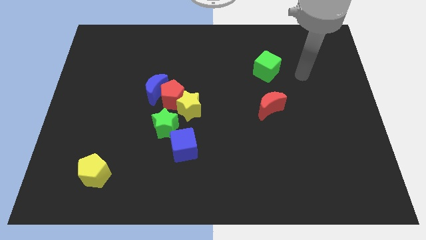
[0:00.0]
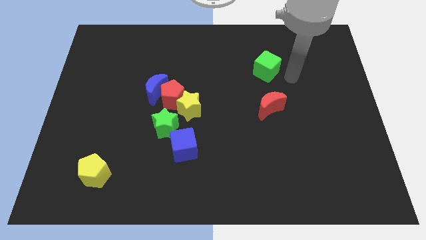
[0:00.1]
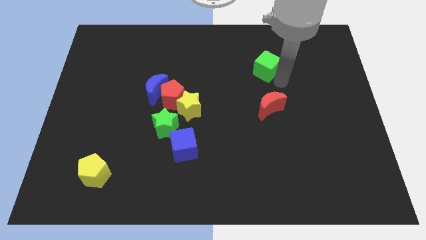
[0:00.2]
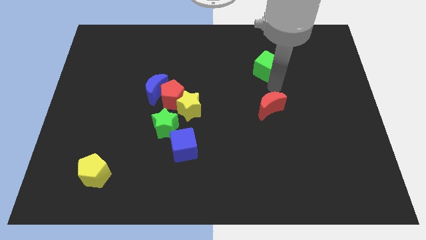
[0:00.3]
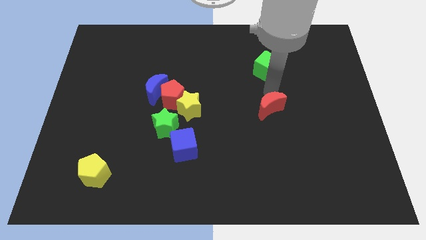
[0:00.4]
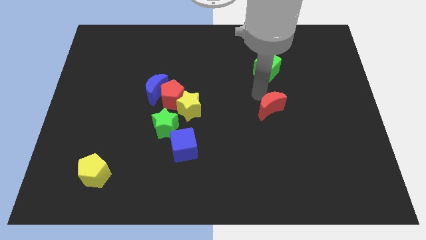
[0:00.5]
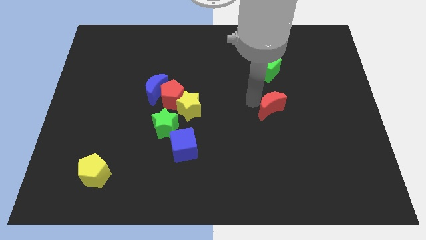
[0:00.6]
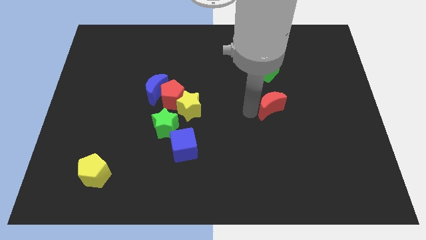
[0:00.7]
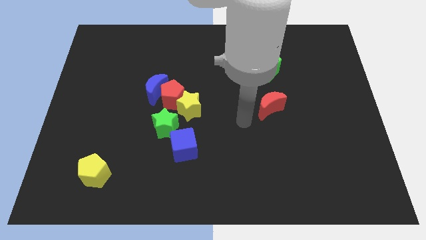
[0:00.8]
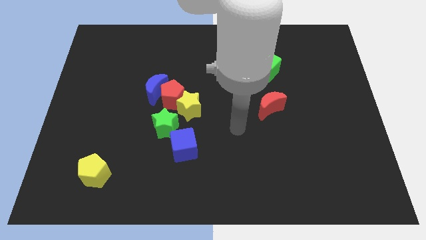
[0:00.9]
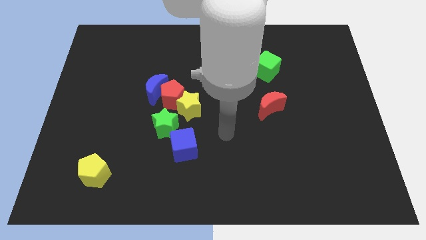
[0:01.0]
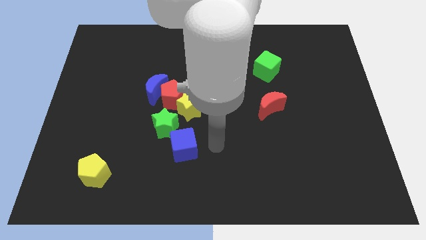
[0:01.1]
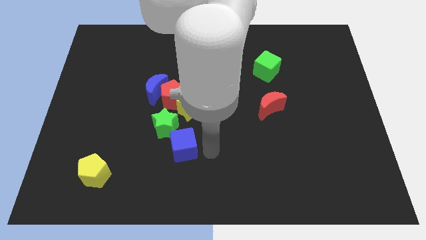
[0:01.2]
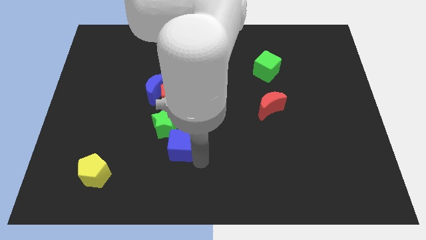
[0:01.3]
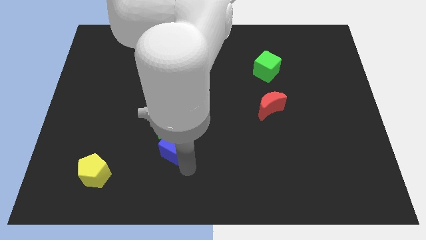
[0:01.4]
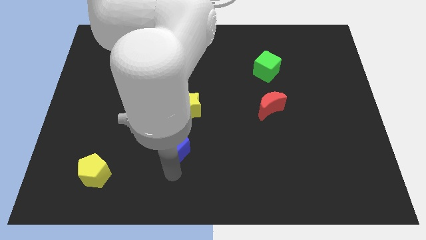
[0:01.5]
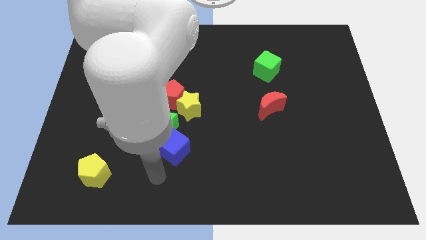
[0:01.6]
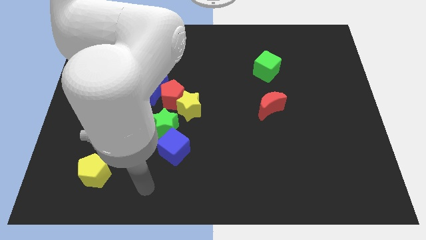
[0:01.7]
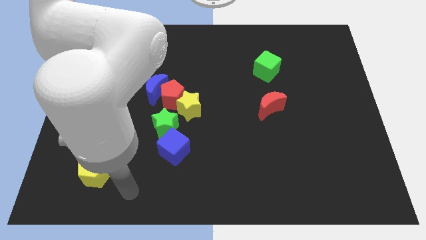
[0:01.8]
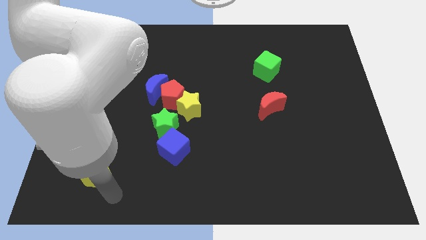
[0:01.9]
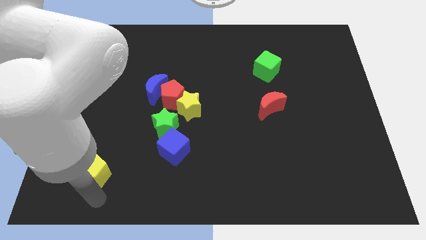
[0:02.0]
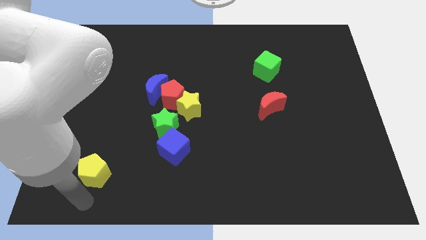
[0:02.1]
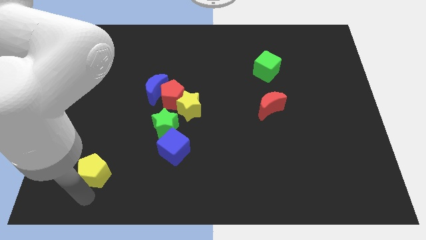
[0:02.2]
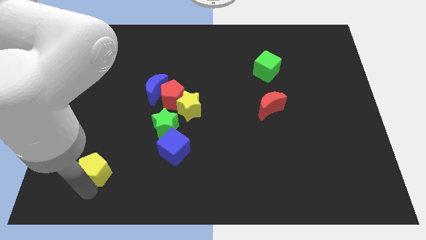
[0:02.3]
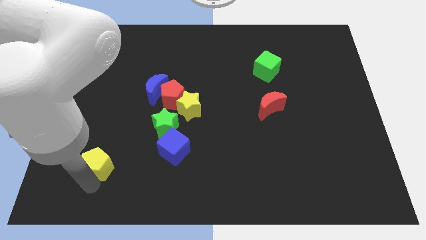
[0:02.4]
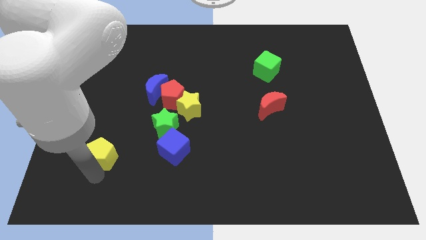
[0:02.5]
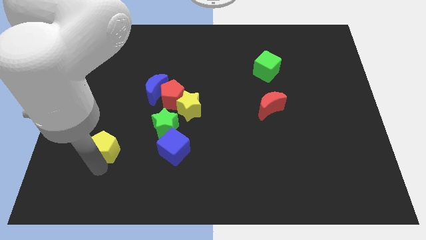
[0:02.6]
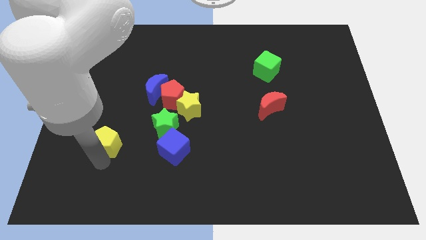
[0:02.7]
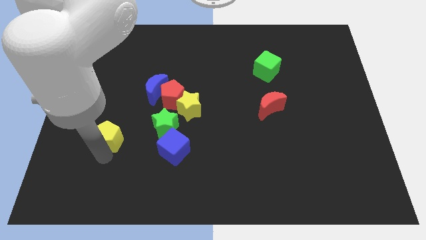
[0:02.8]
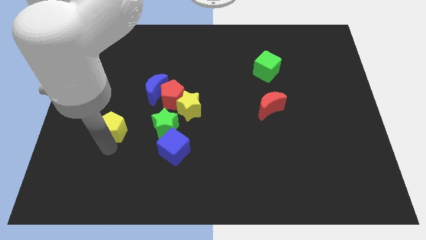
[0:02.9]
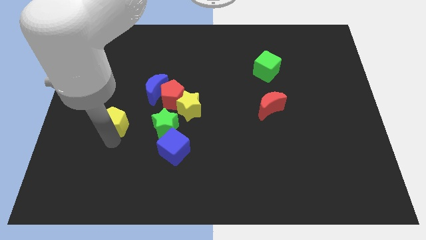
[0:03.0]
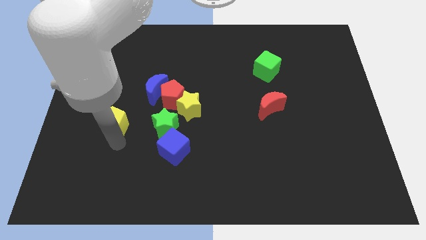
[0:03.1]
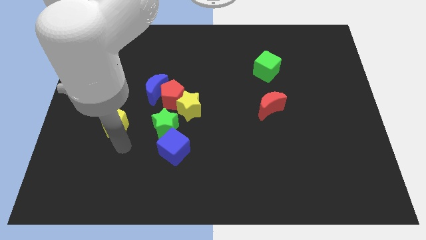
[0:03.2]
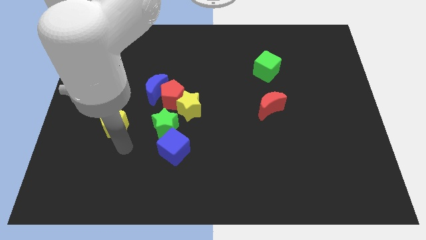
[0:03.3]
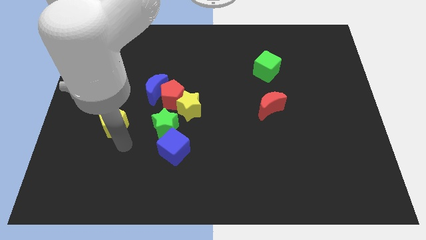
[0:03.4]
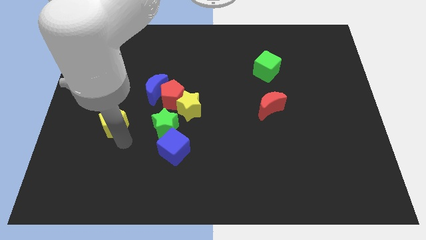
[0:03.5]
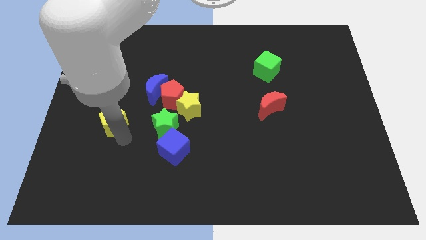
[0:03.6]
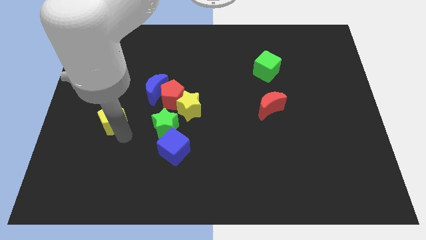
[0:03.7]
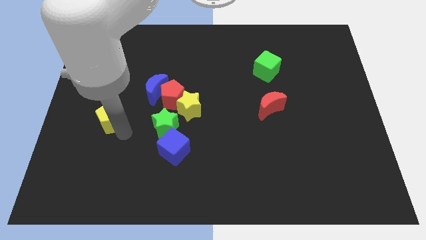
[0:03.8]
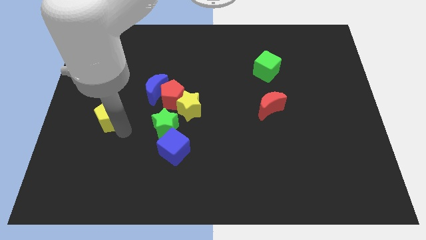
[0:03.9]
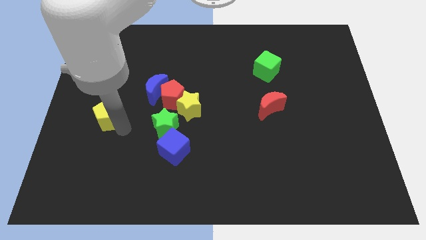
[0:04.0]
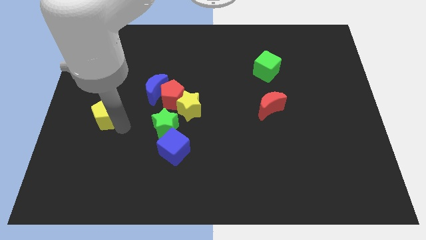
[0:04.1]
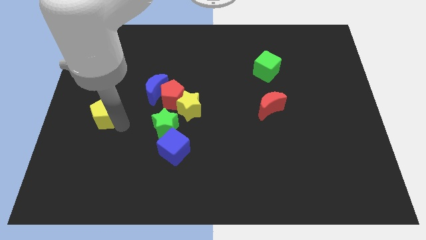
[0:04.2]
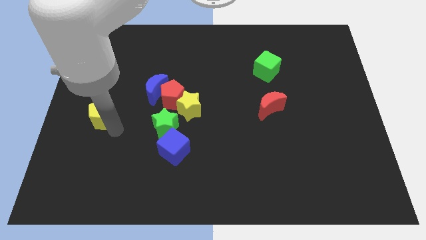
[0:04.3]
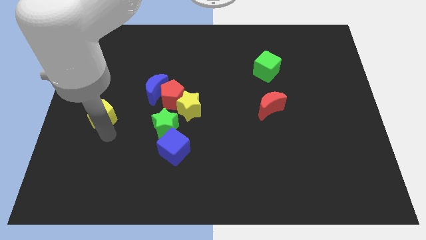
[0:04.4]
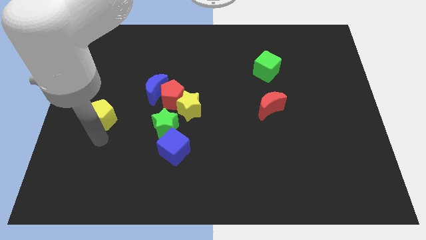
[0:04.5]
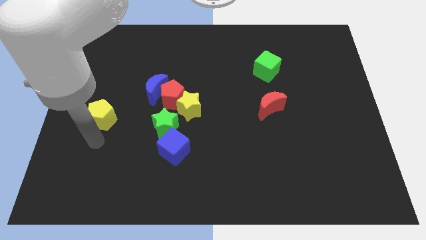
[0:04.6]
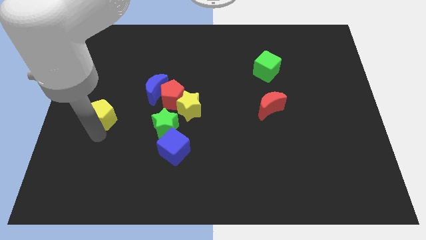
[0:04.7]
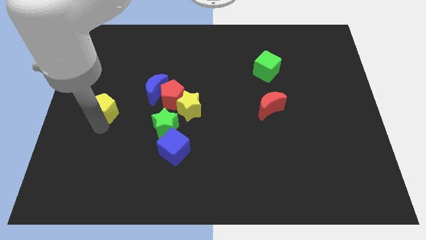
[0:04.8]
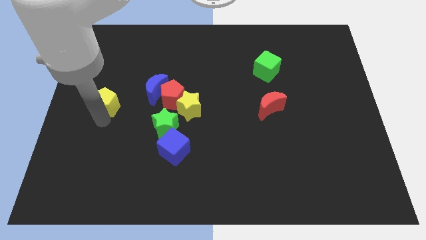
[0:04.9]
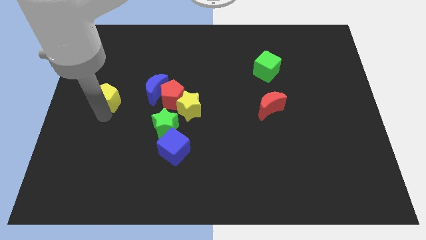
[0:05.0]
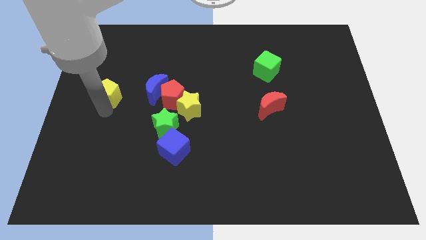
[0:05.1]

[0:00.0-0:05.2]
push the yellow pentagon upwards

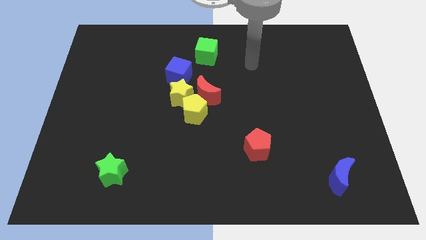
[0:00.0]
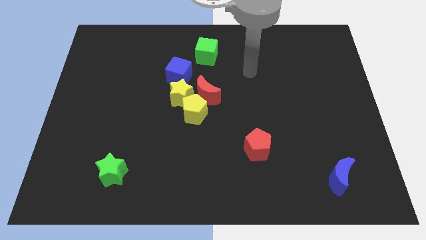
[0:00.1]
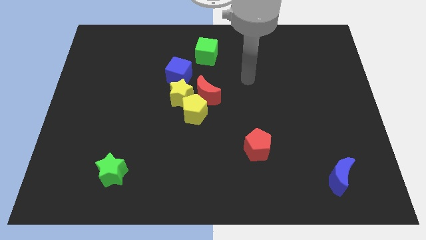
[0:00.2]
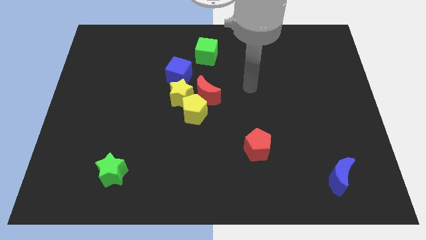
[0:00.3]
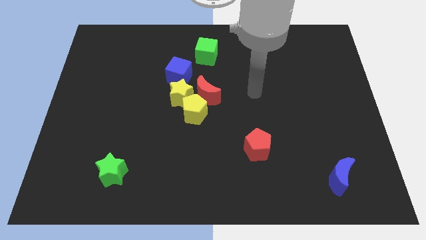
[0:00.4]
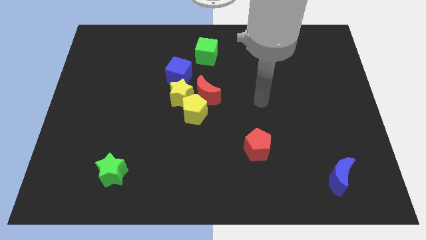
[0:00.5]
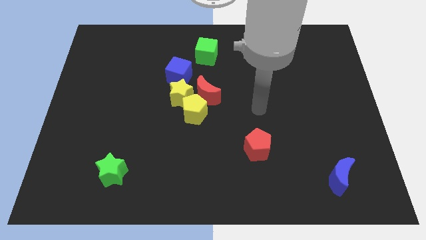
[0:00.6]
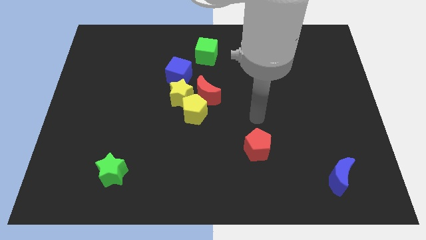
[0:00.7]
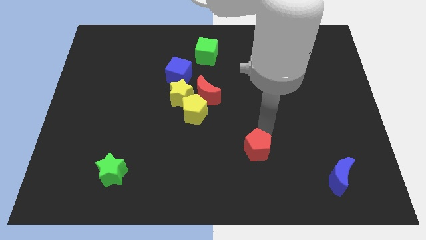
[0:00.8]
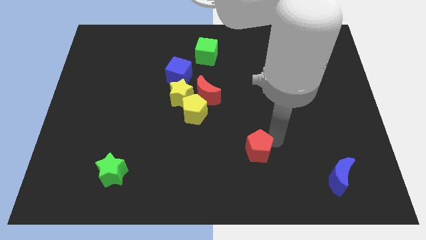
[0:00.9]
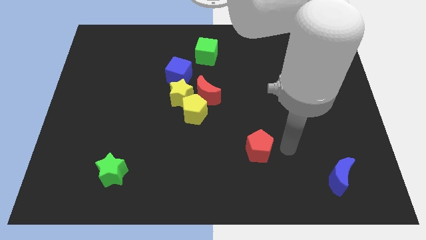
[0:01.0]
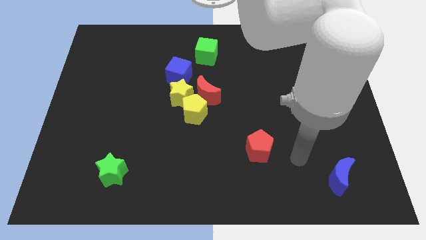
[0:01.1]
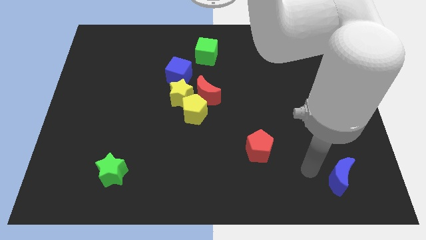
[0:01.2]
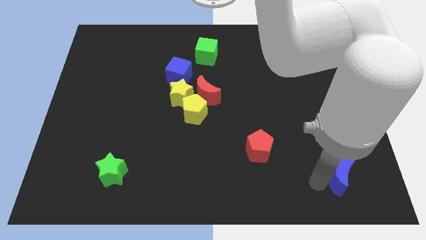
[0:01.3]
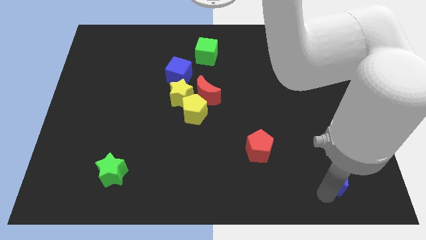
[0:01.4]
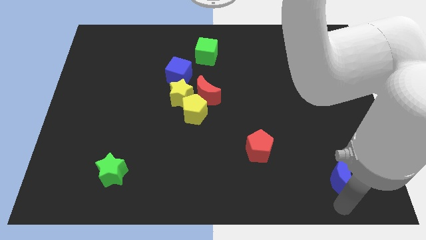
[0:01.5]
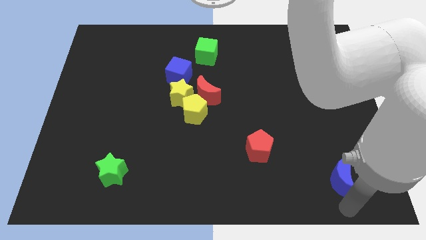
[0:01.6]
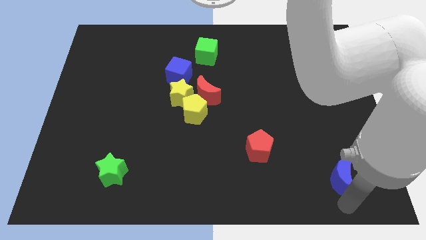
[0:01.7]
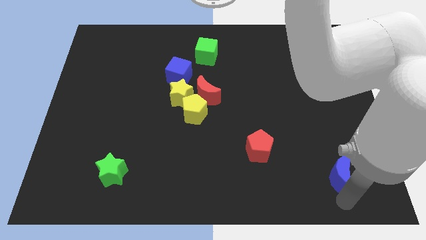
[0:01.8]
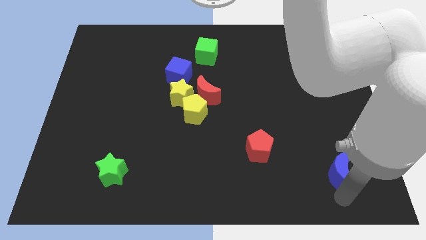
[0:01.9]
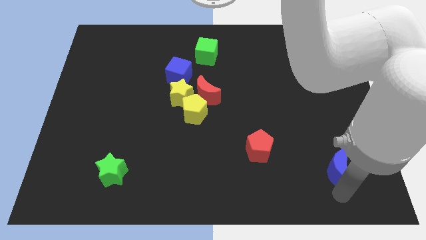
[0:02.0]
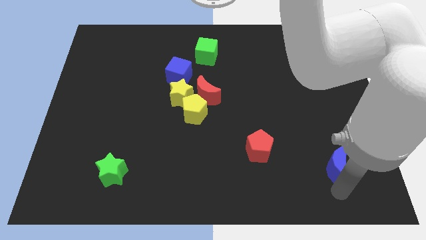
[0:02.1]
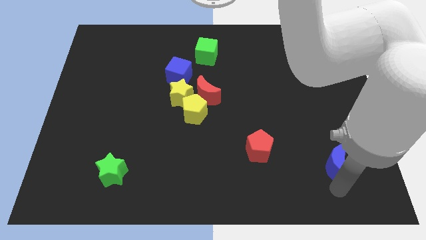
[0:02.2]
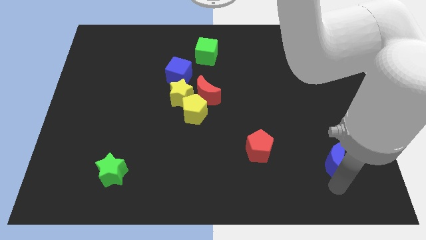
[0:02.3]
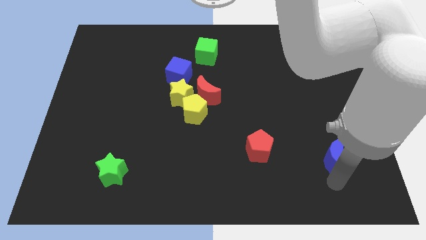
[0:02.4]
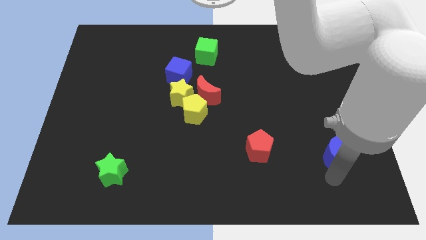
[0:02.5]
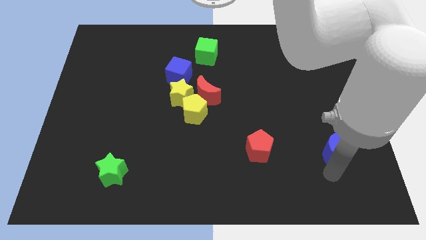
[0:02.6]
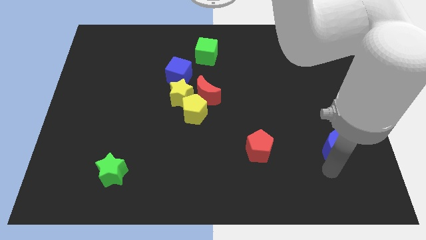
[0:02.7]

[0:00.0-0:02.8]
slightly move the blue moon upwards
